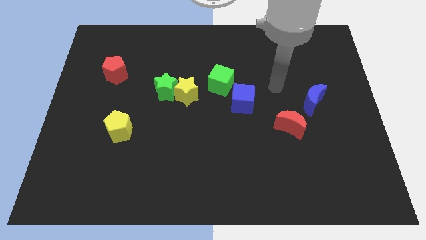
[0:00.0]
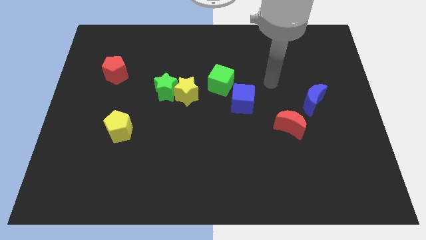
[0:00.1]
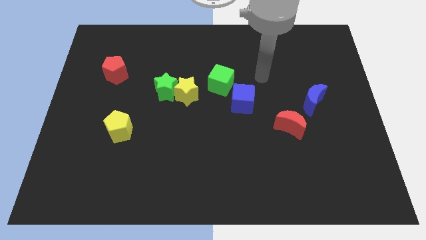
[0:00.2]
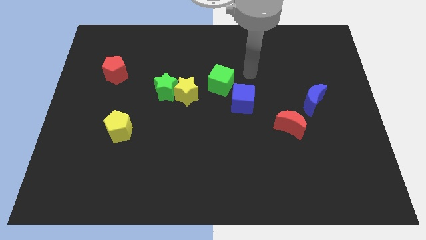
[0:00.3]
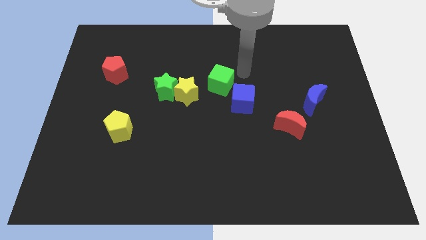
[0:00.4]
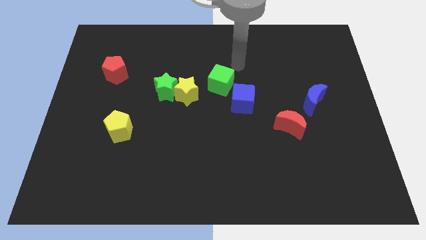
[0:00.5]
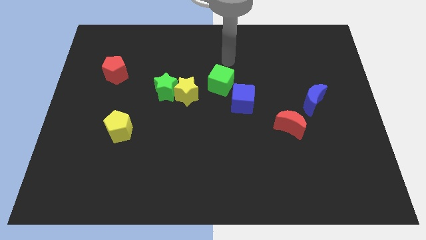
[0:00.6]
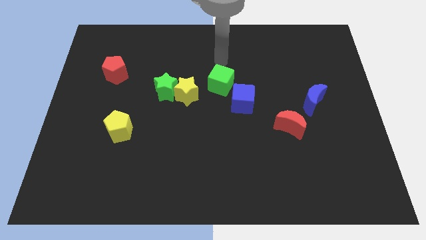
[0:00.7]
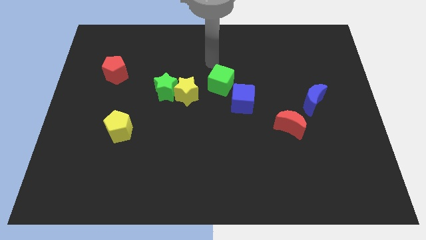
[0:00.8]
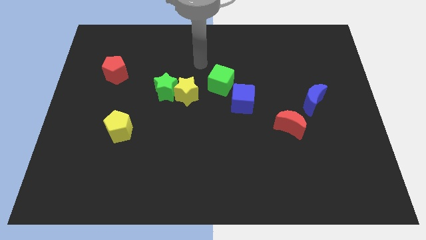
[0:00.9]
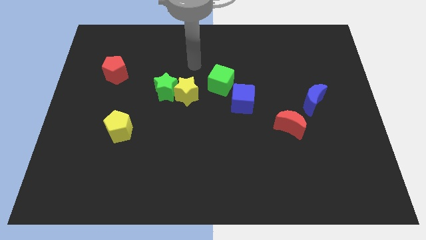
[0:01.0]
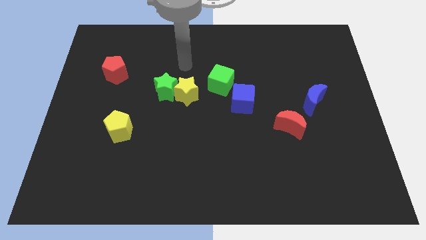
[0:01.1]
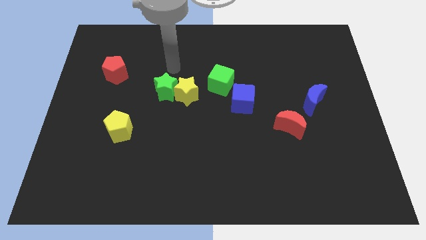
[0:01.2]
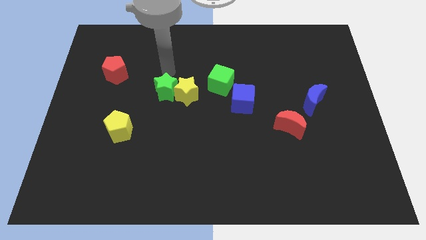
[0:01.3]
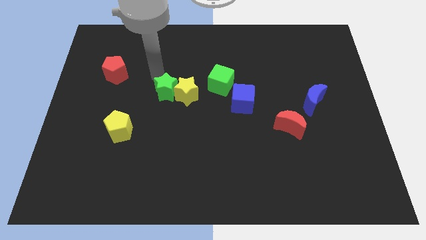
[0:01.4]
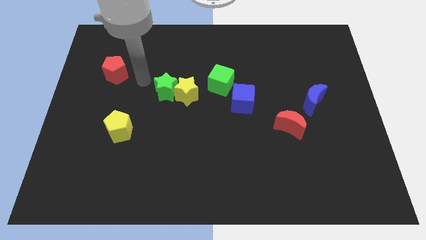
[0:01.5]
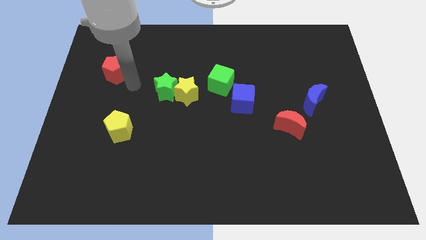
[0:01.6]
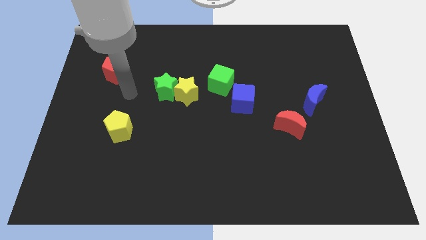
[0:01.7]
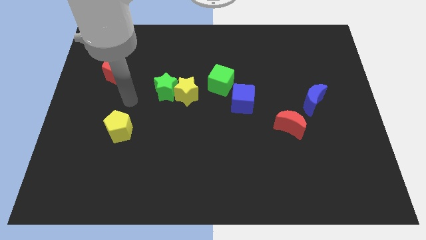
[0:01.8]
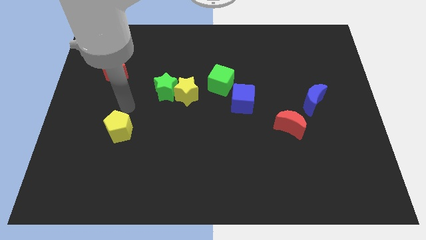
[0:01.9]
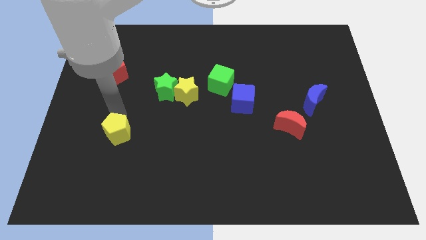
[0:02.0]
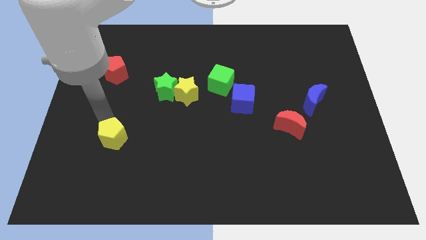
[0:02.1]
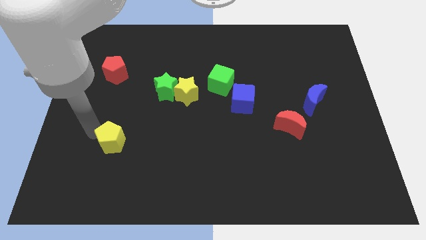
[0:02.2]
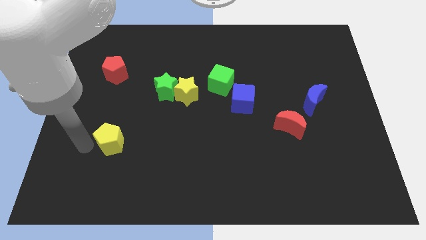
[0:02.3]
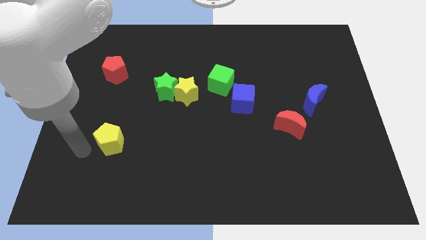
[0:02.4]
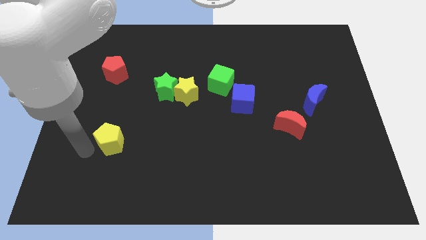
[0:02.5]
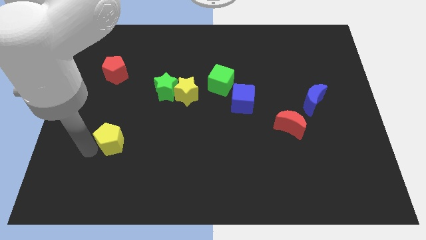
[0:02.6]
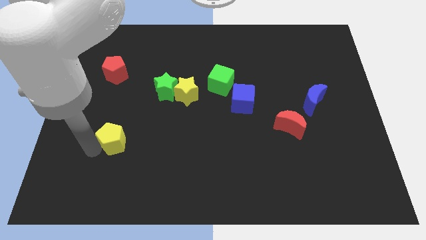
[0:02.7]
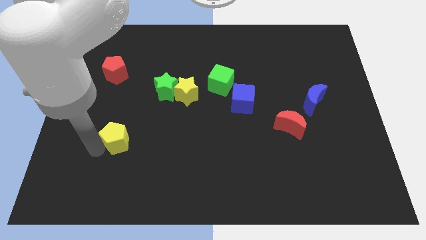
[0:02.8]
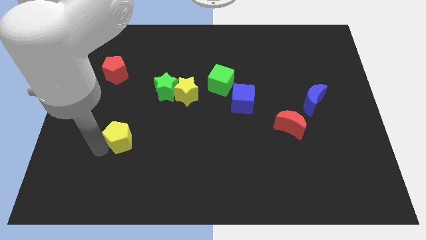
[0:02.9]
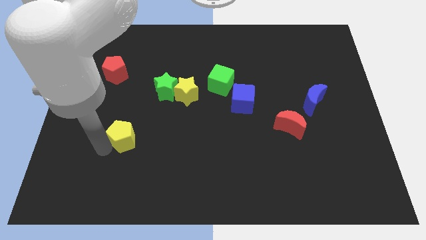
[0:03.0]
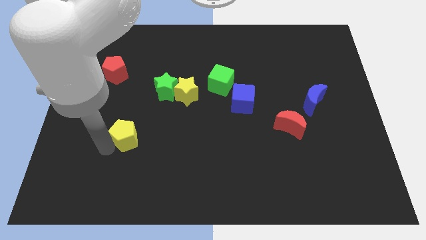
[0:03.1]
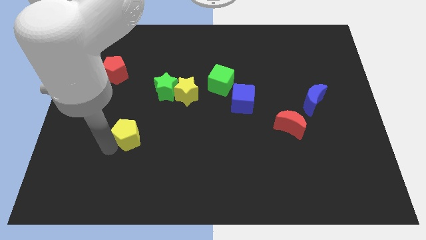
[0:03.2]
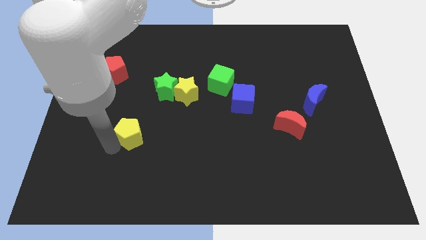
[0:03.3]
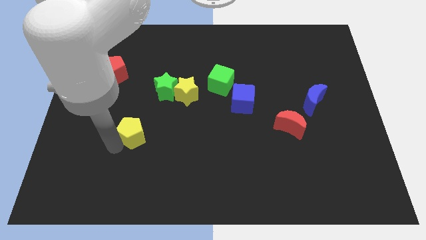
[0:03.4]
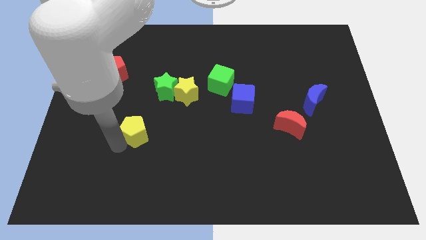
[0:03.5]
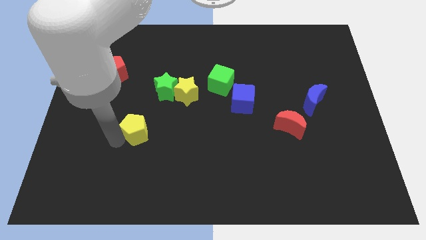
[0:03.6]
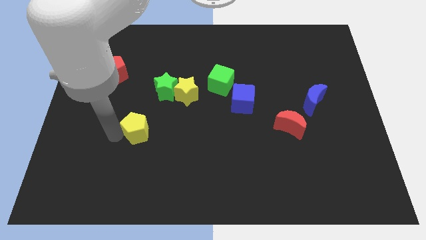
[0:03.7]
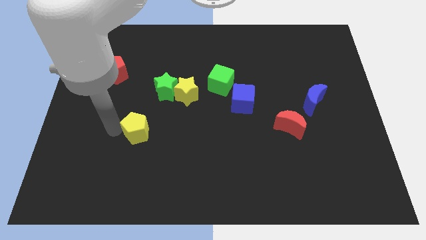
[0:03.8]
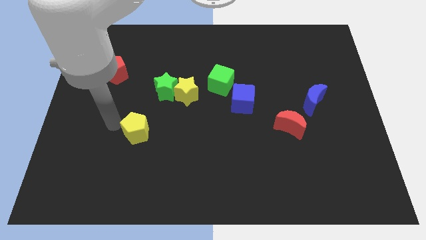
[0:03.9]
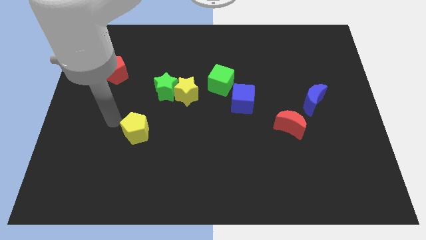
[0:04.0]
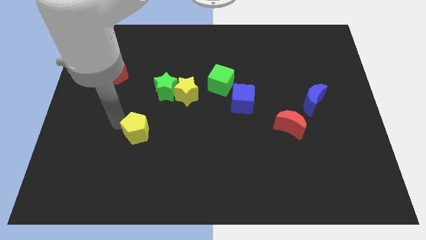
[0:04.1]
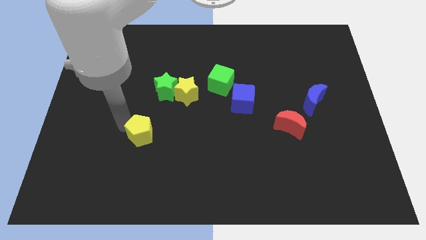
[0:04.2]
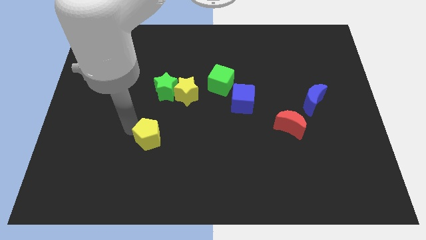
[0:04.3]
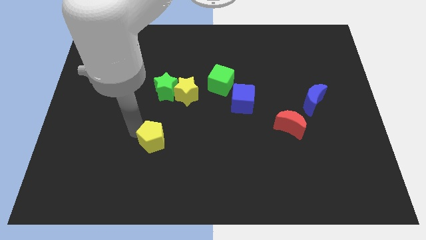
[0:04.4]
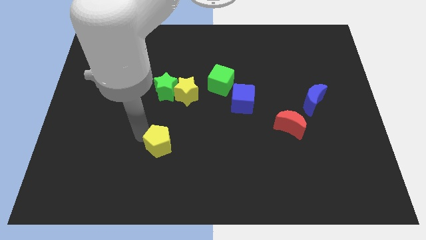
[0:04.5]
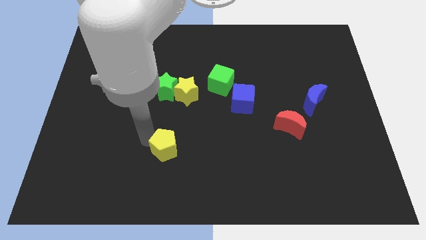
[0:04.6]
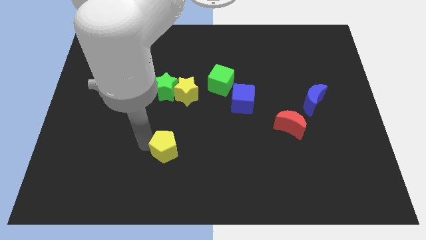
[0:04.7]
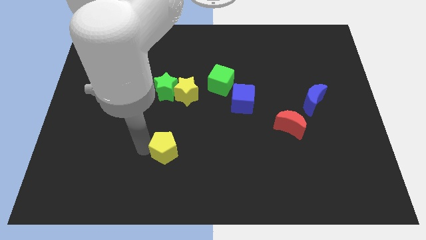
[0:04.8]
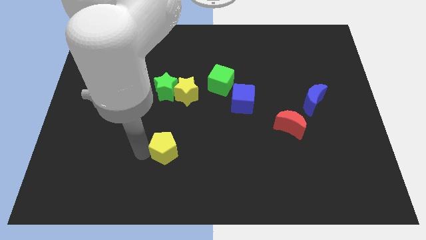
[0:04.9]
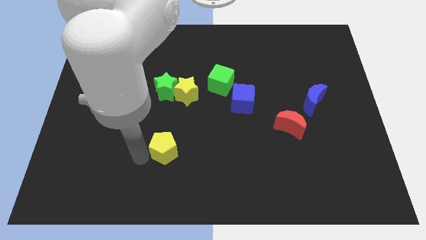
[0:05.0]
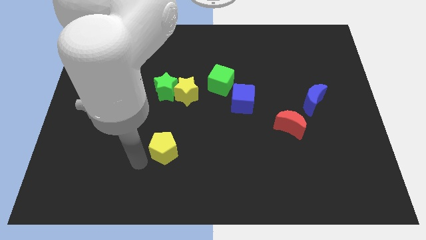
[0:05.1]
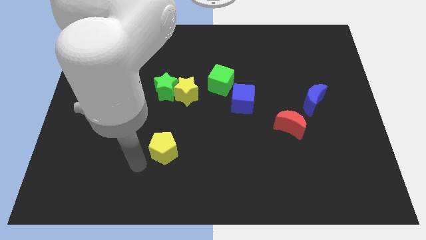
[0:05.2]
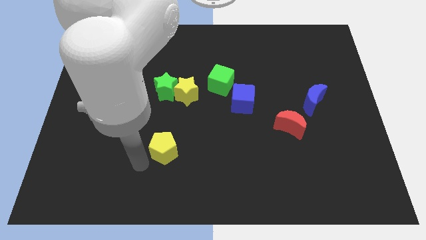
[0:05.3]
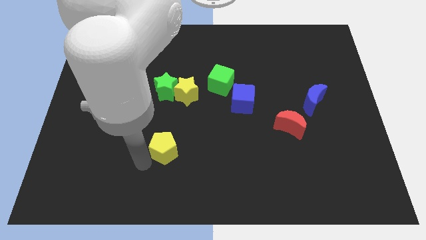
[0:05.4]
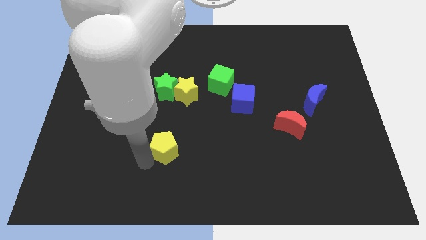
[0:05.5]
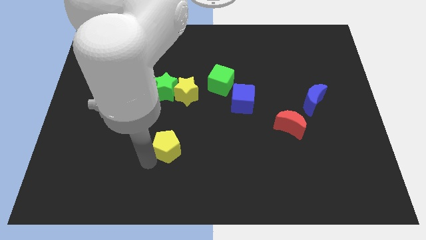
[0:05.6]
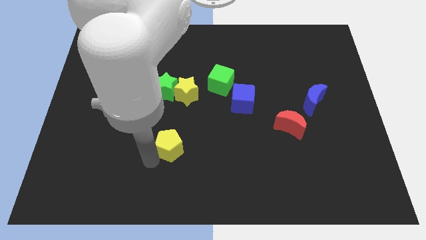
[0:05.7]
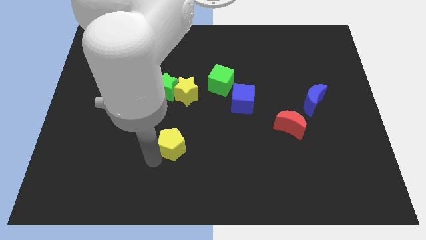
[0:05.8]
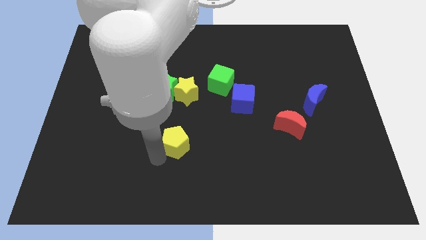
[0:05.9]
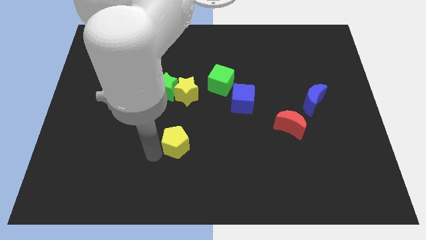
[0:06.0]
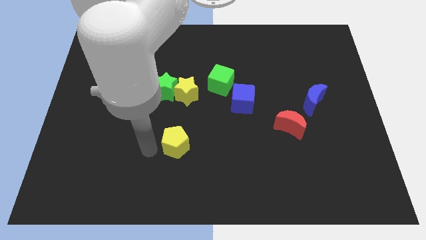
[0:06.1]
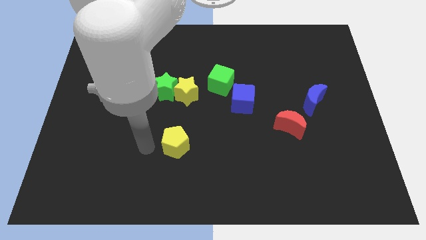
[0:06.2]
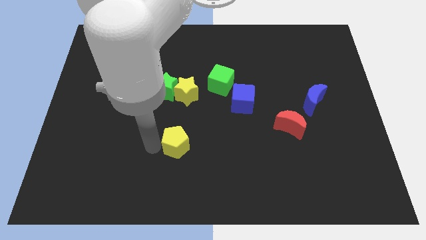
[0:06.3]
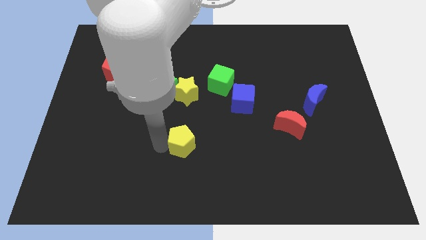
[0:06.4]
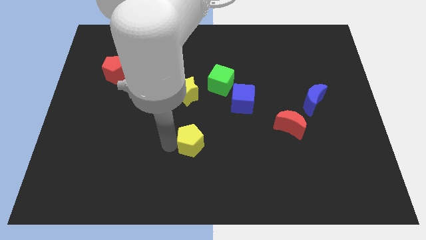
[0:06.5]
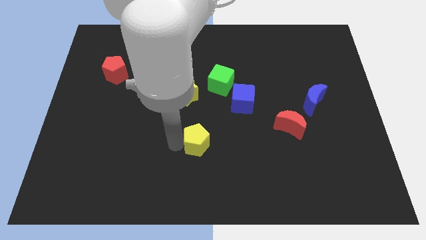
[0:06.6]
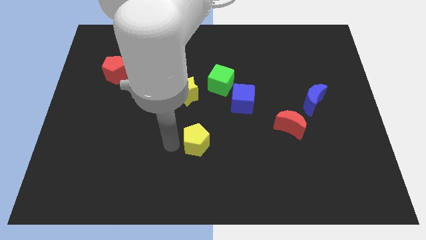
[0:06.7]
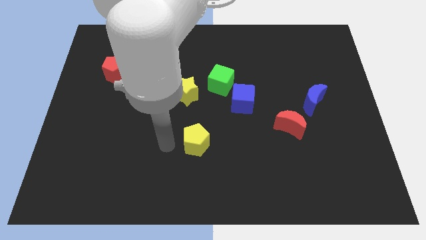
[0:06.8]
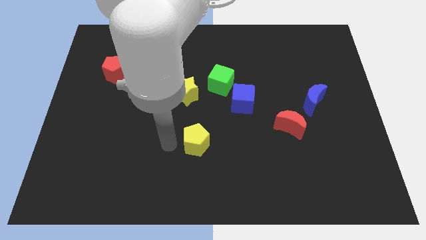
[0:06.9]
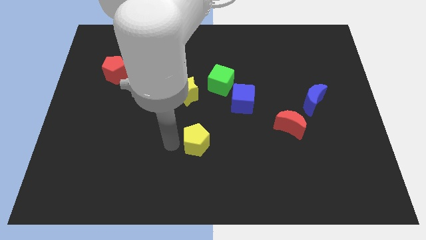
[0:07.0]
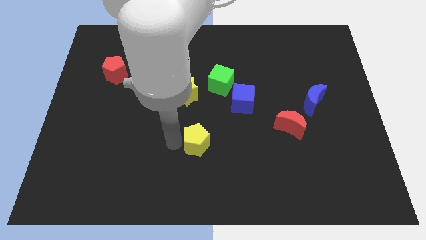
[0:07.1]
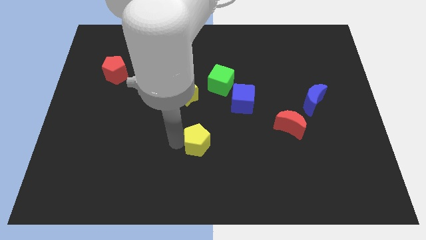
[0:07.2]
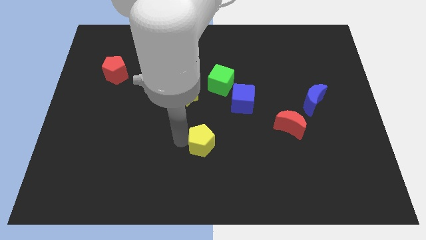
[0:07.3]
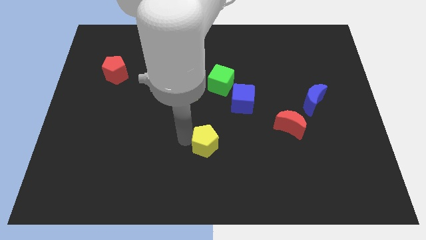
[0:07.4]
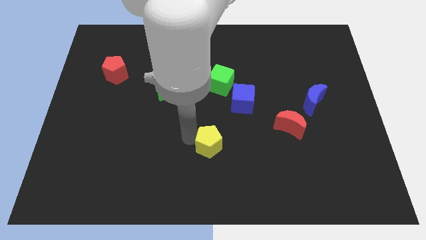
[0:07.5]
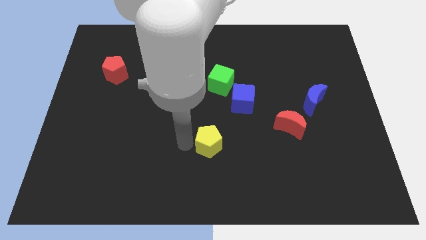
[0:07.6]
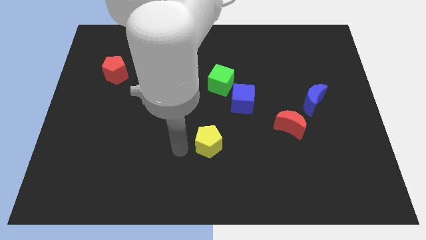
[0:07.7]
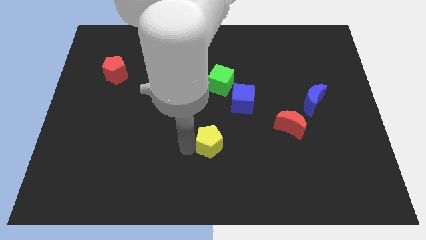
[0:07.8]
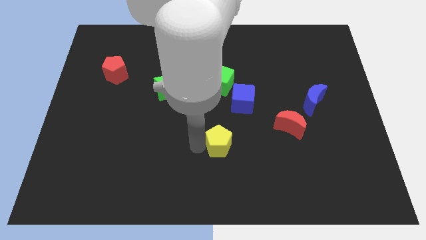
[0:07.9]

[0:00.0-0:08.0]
push the yellow pentagon to the right
